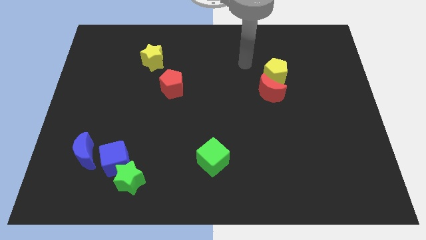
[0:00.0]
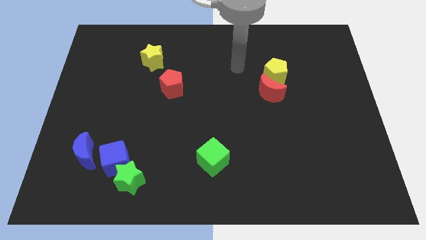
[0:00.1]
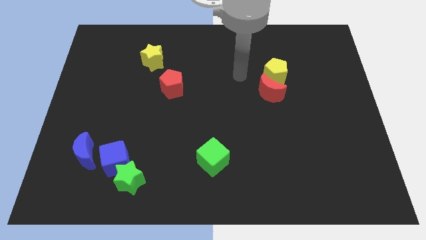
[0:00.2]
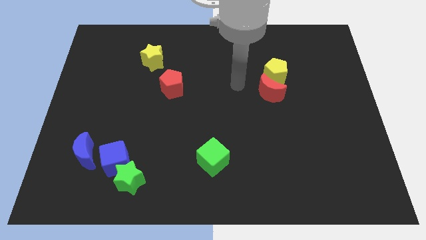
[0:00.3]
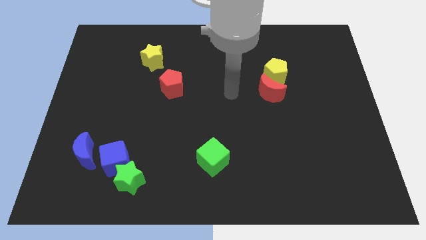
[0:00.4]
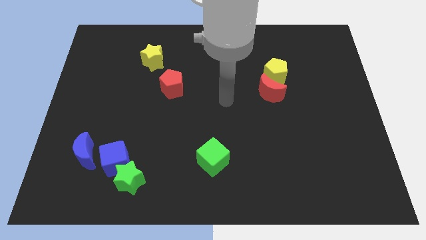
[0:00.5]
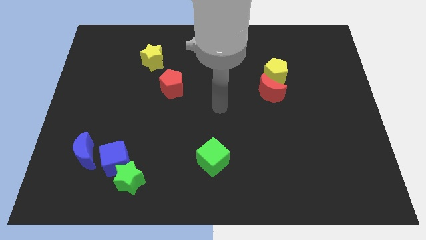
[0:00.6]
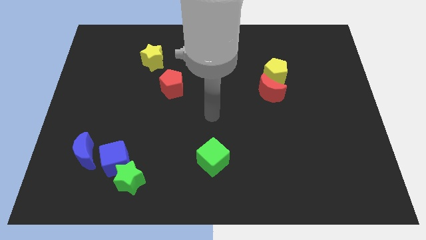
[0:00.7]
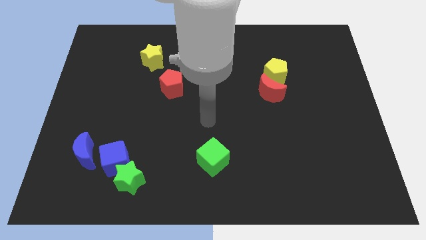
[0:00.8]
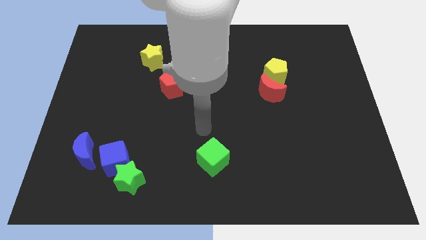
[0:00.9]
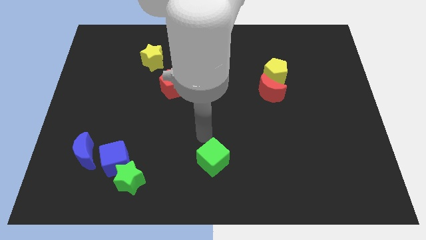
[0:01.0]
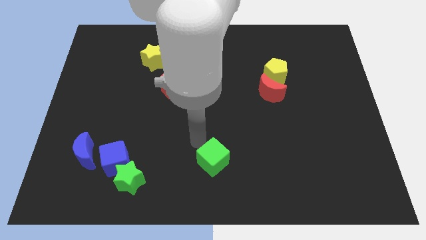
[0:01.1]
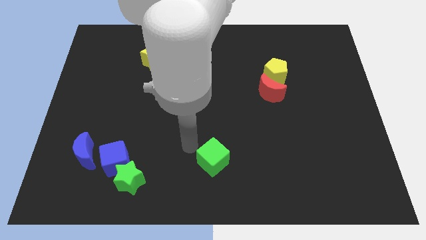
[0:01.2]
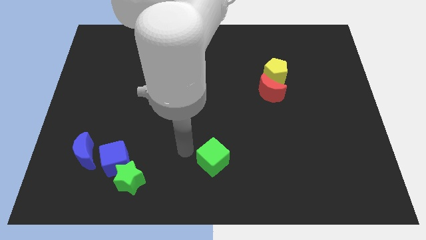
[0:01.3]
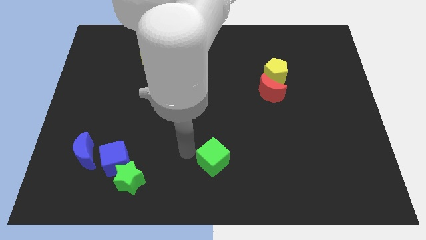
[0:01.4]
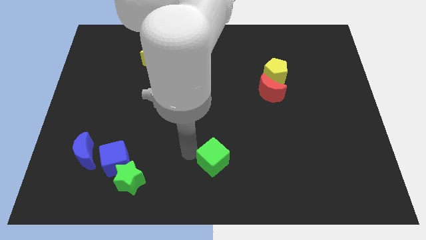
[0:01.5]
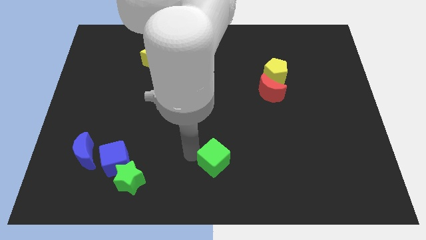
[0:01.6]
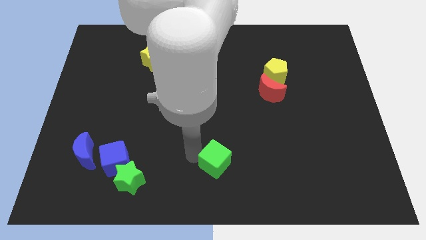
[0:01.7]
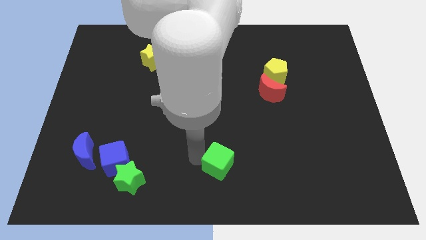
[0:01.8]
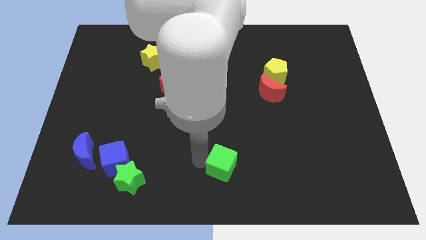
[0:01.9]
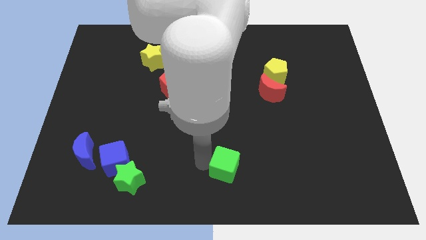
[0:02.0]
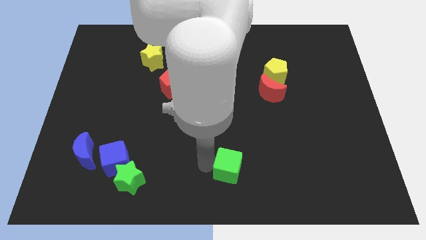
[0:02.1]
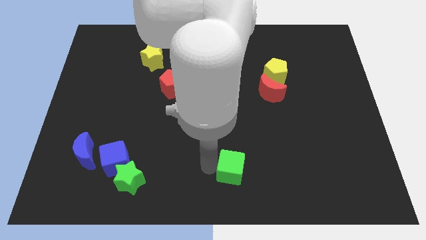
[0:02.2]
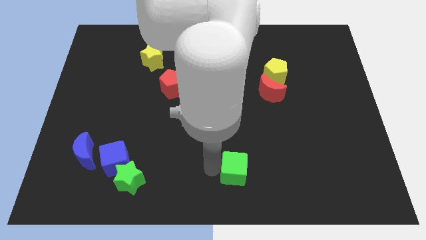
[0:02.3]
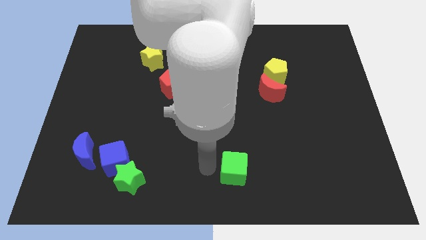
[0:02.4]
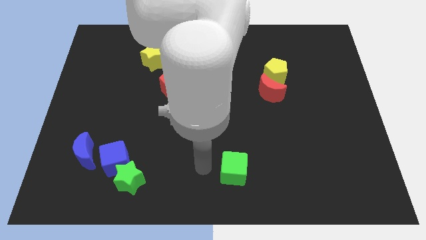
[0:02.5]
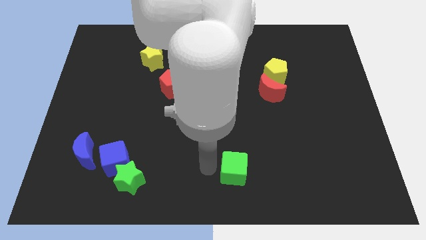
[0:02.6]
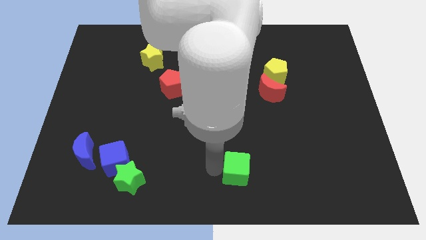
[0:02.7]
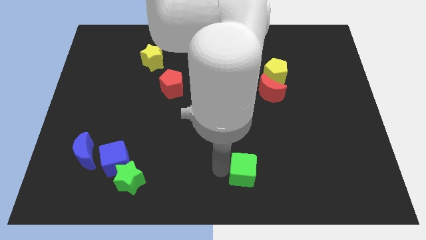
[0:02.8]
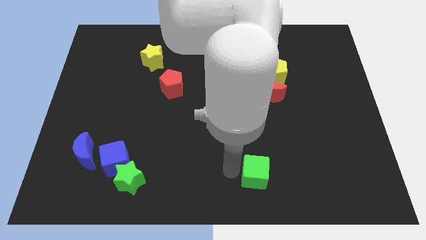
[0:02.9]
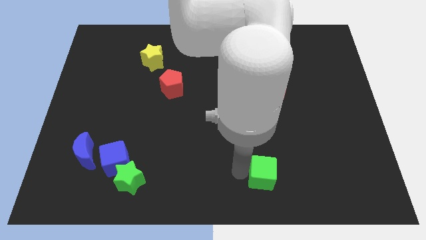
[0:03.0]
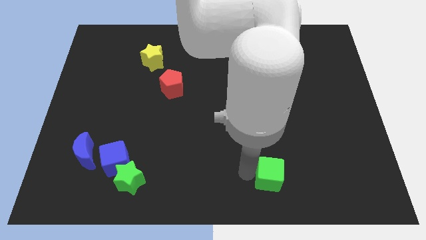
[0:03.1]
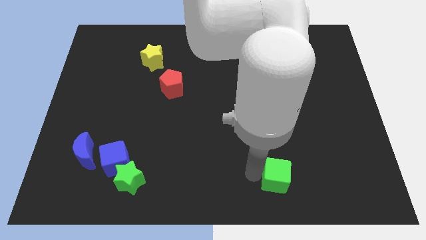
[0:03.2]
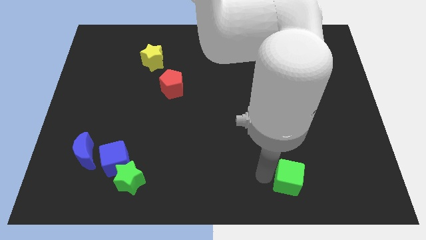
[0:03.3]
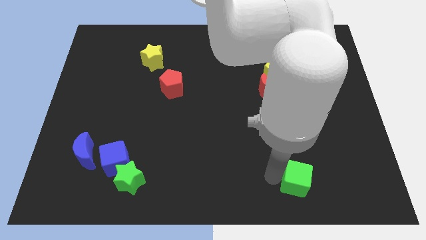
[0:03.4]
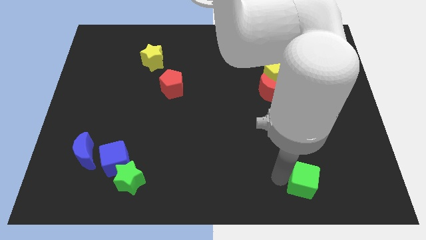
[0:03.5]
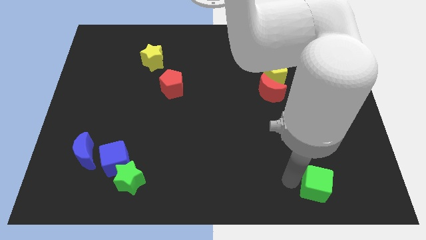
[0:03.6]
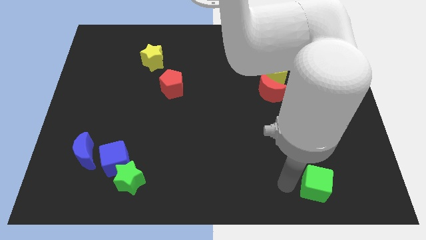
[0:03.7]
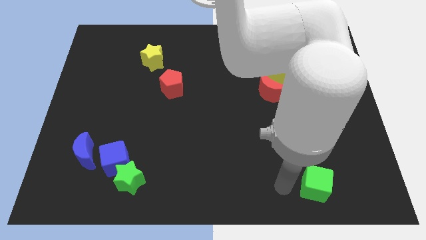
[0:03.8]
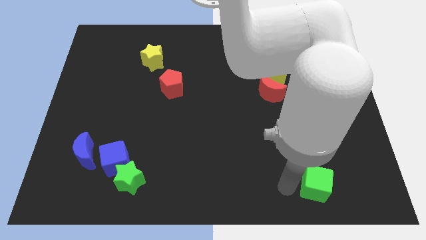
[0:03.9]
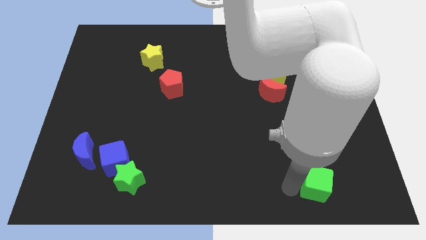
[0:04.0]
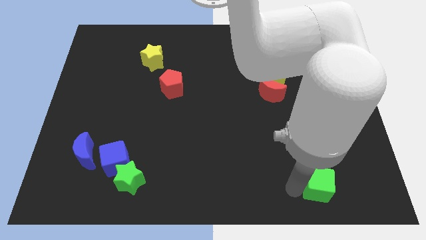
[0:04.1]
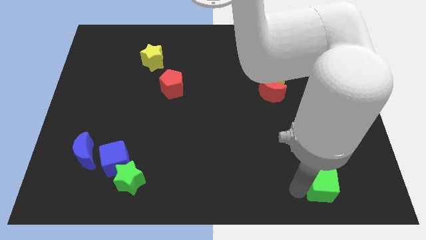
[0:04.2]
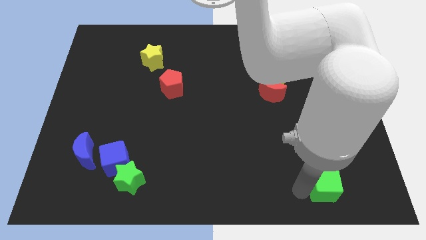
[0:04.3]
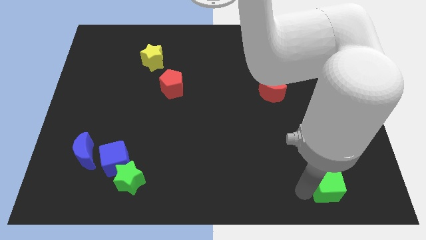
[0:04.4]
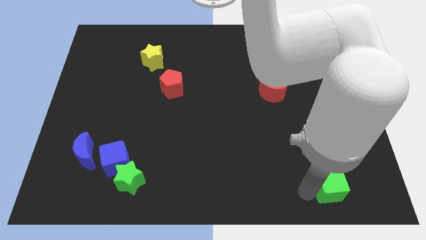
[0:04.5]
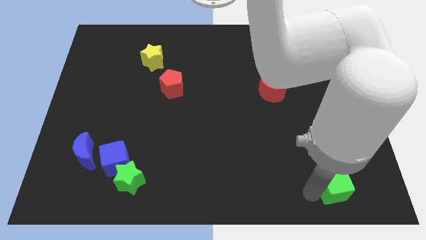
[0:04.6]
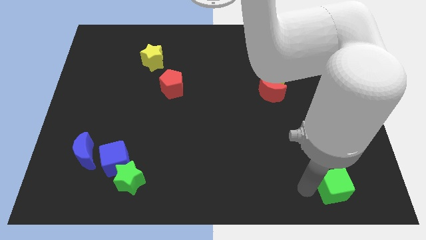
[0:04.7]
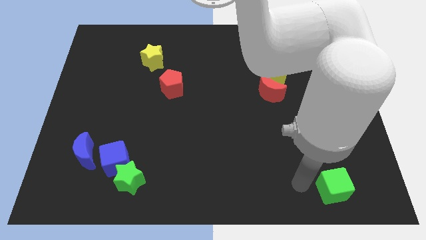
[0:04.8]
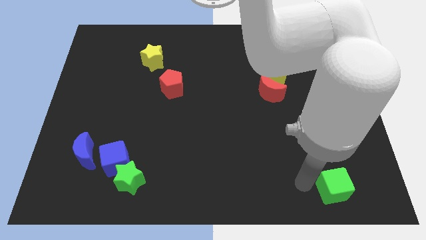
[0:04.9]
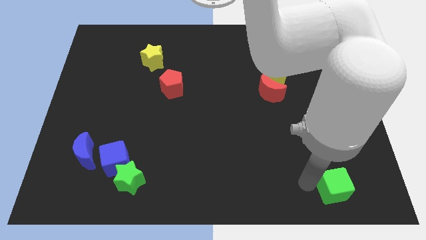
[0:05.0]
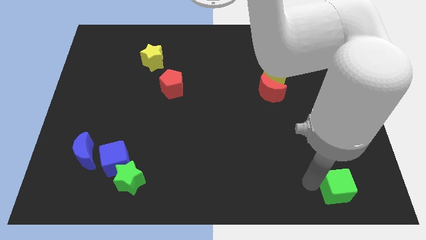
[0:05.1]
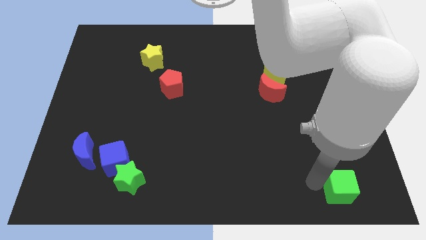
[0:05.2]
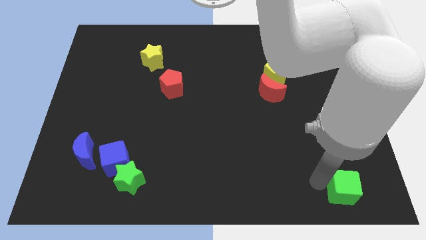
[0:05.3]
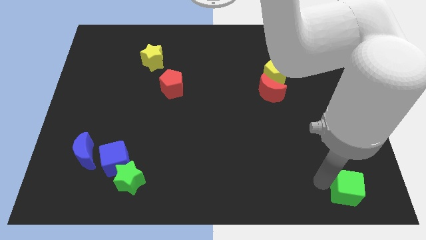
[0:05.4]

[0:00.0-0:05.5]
slide the green cube to the bottom right corner

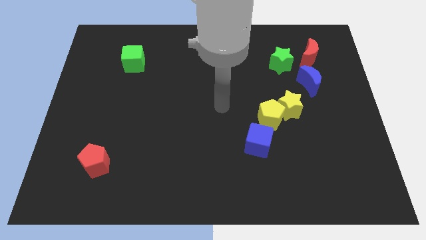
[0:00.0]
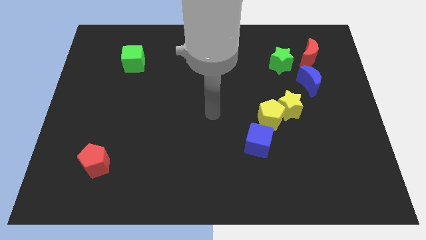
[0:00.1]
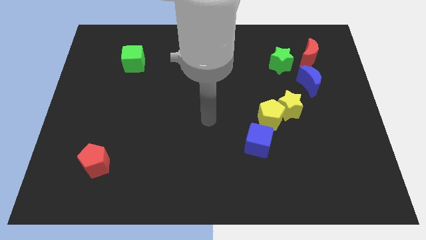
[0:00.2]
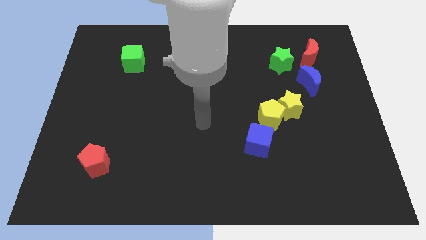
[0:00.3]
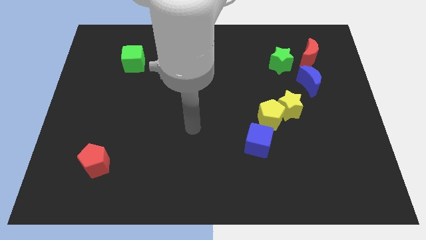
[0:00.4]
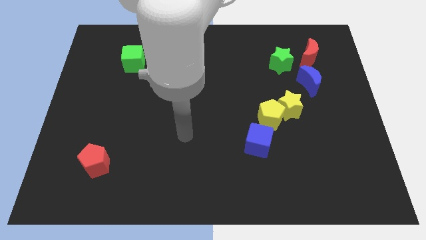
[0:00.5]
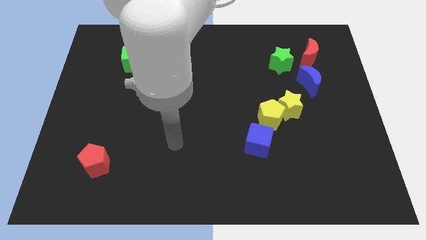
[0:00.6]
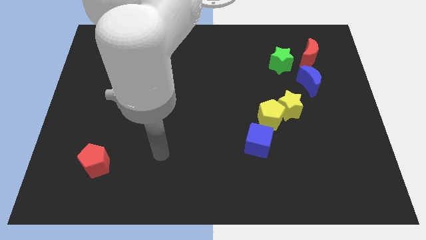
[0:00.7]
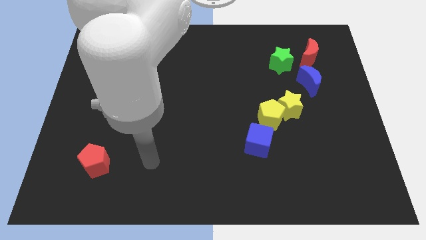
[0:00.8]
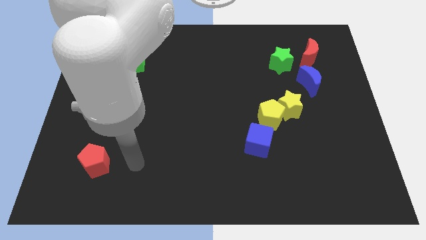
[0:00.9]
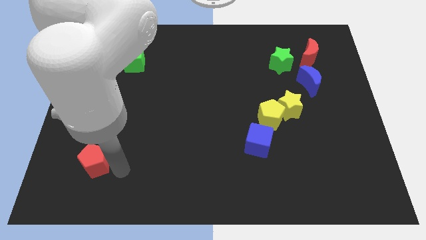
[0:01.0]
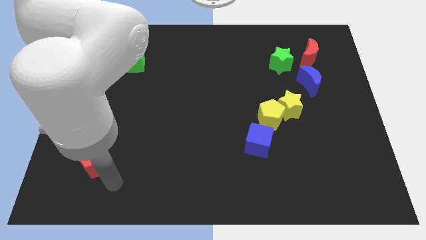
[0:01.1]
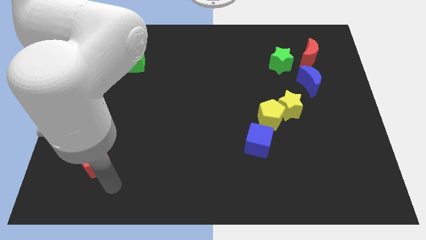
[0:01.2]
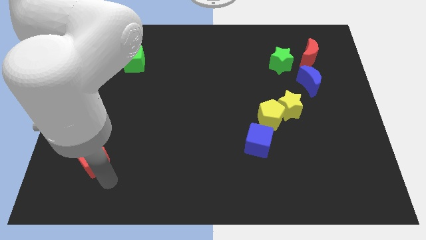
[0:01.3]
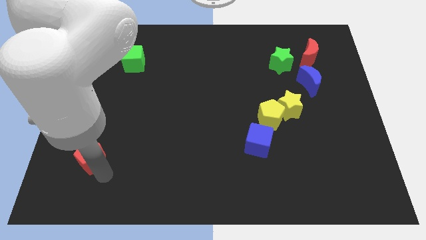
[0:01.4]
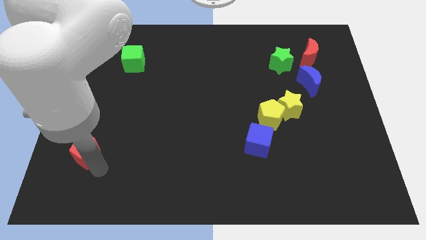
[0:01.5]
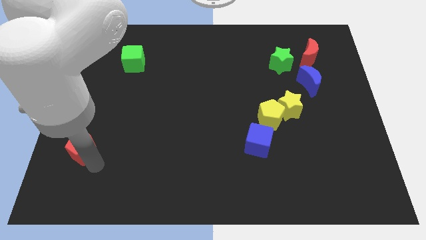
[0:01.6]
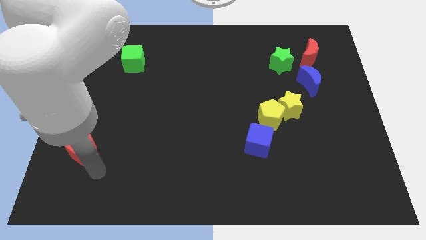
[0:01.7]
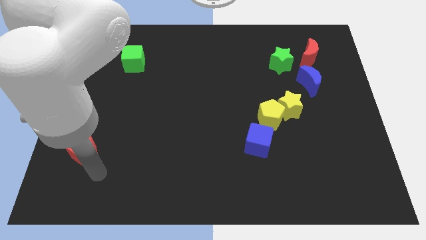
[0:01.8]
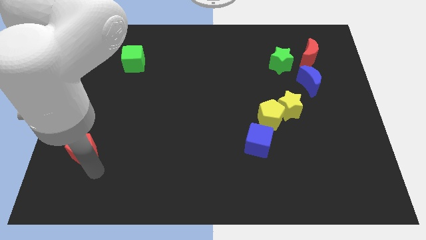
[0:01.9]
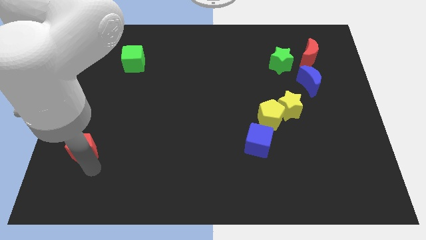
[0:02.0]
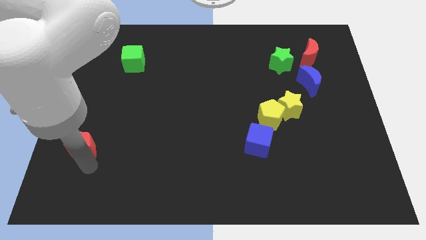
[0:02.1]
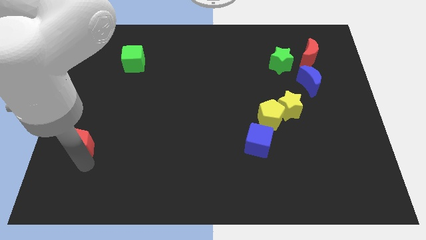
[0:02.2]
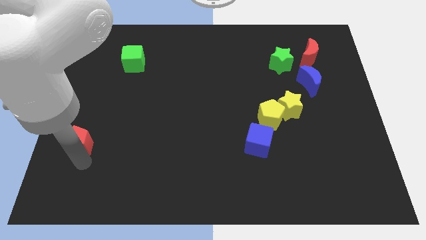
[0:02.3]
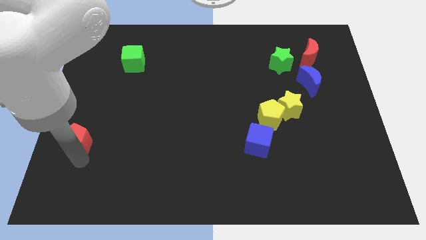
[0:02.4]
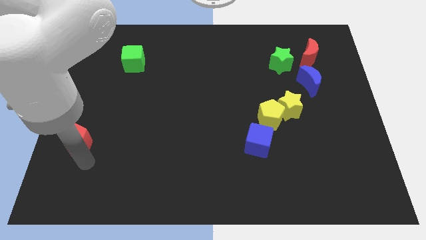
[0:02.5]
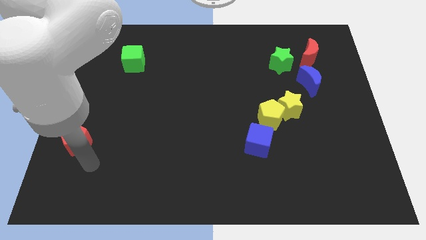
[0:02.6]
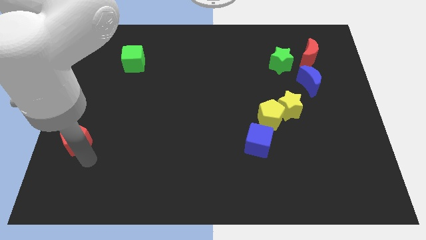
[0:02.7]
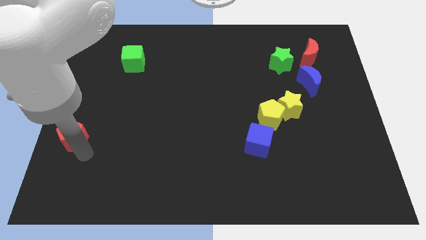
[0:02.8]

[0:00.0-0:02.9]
put the red pentagon to the left side of the board
